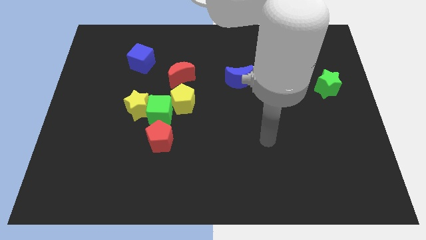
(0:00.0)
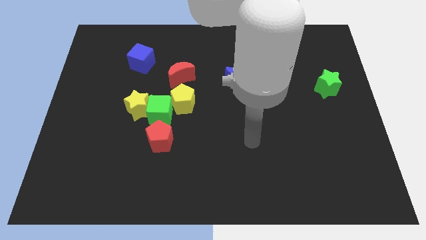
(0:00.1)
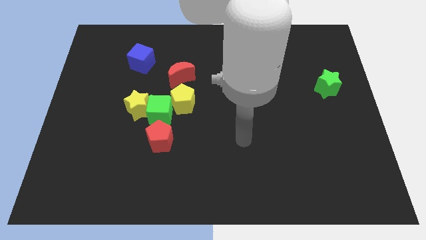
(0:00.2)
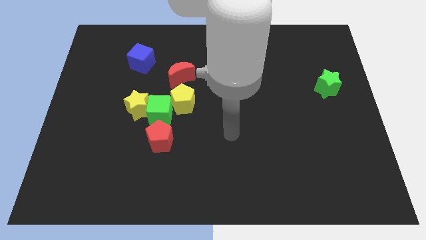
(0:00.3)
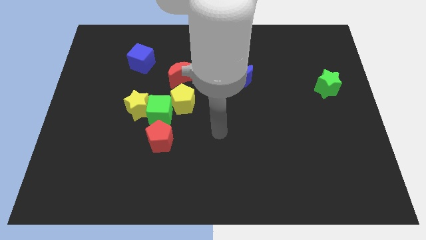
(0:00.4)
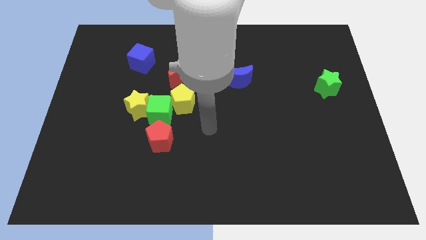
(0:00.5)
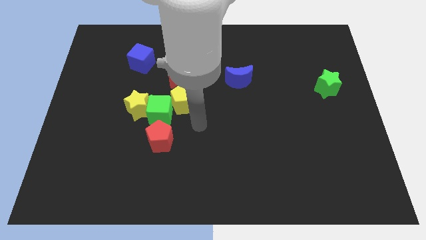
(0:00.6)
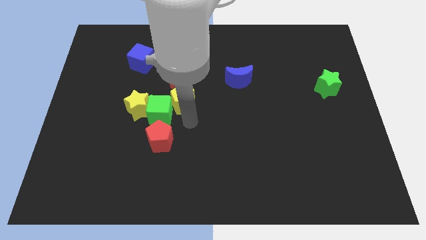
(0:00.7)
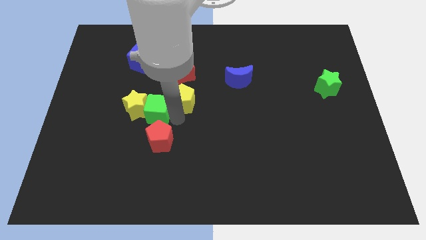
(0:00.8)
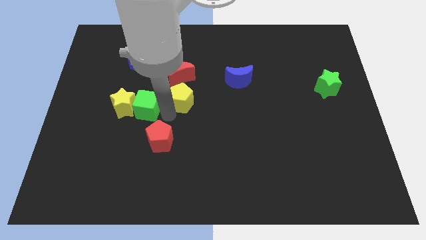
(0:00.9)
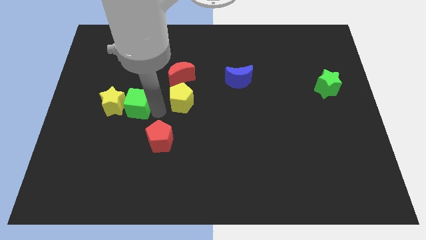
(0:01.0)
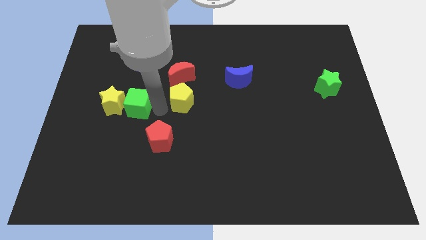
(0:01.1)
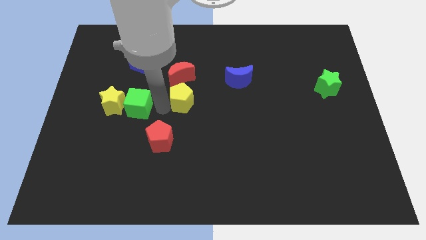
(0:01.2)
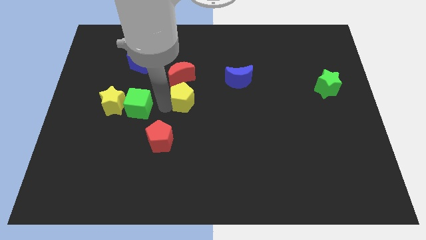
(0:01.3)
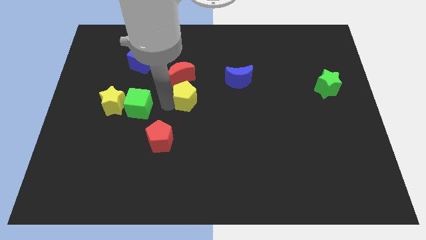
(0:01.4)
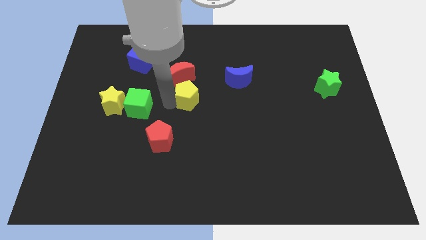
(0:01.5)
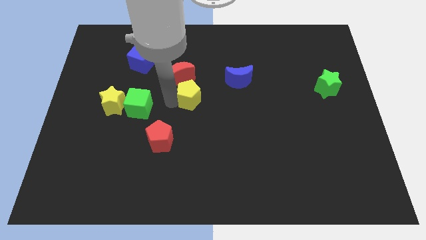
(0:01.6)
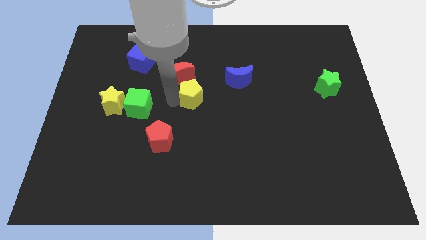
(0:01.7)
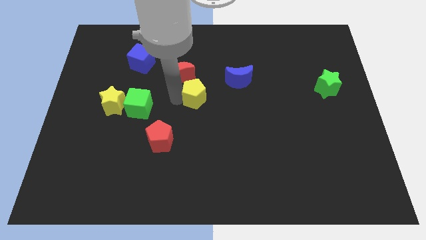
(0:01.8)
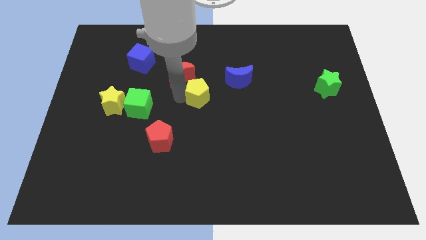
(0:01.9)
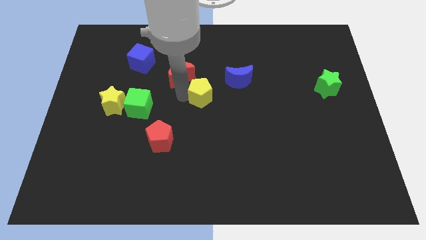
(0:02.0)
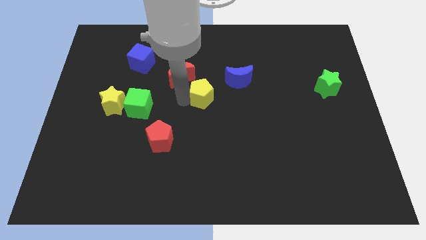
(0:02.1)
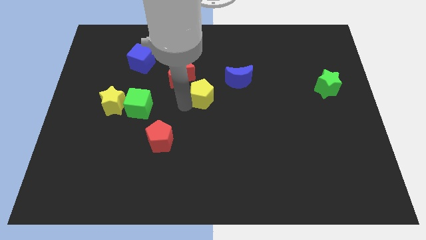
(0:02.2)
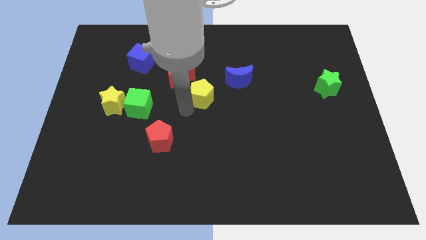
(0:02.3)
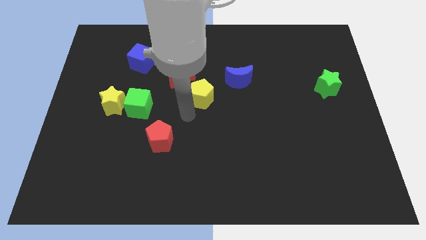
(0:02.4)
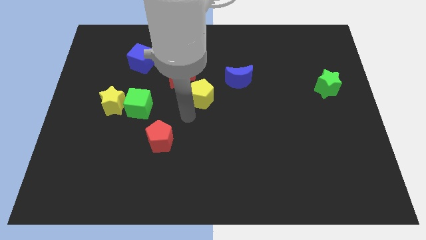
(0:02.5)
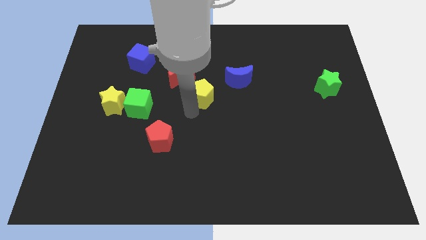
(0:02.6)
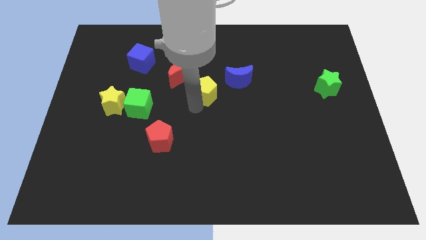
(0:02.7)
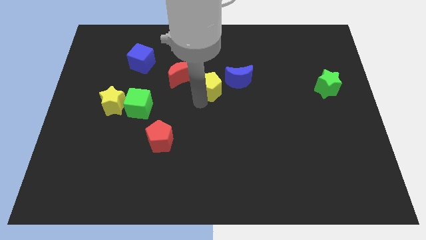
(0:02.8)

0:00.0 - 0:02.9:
push the yellow pentagon a little upwards and to the right

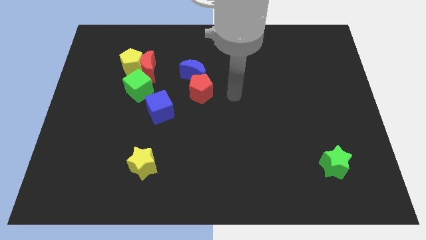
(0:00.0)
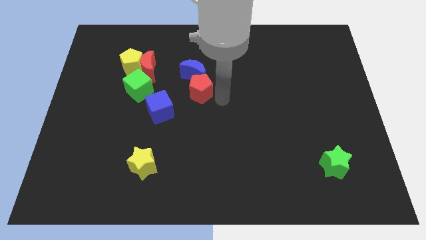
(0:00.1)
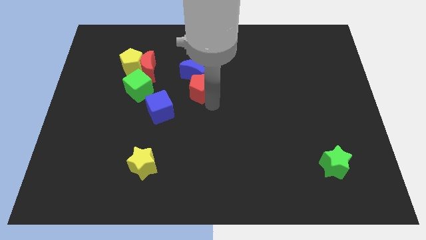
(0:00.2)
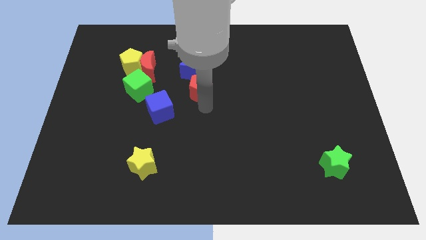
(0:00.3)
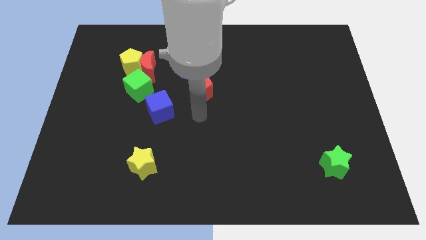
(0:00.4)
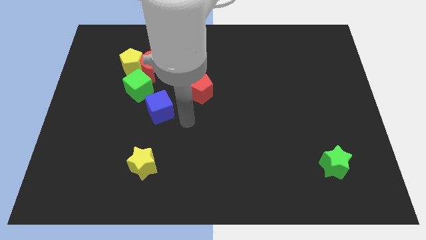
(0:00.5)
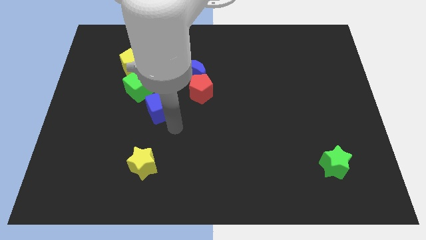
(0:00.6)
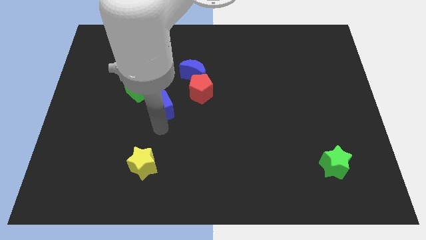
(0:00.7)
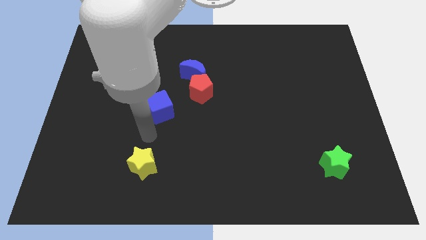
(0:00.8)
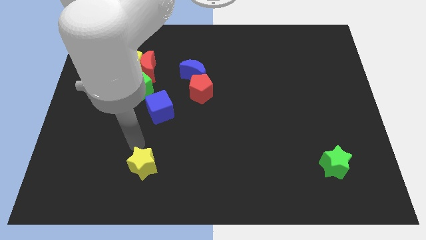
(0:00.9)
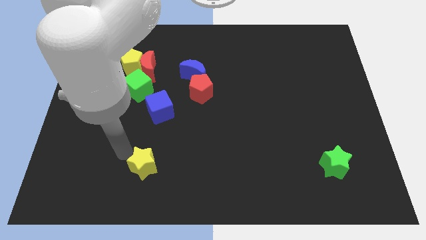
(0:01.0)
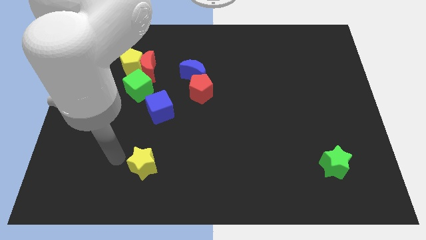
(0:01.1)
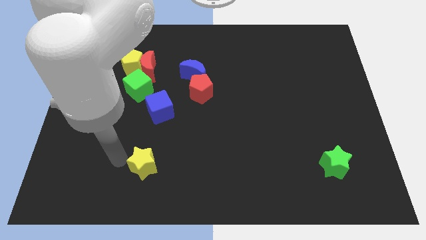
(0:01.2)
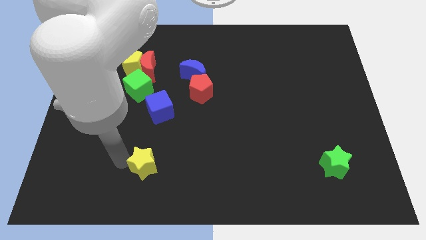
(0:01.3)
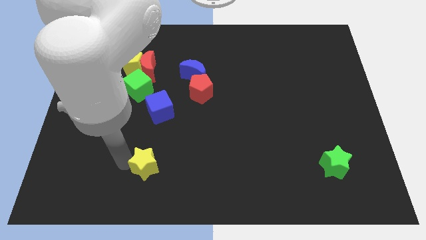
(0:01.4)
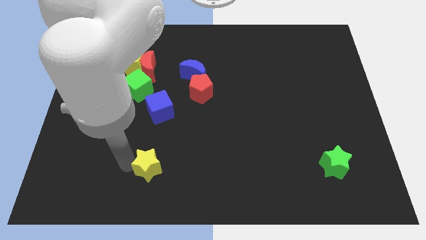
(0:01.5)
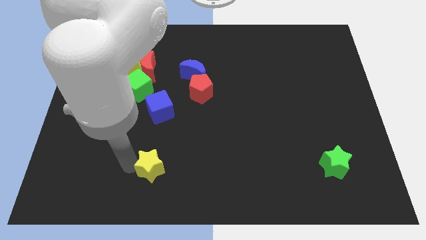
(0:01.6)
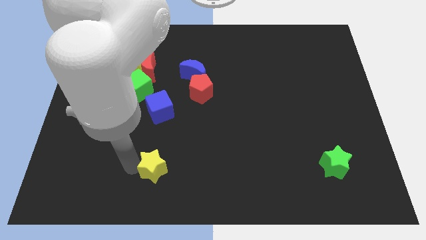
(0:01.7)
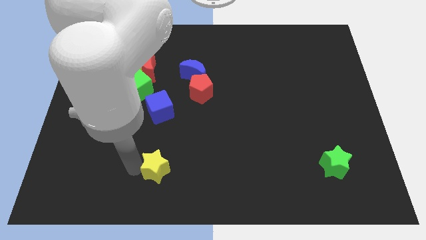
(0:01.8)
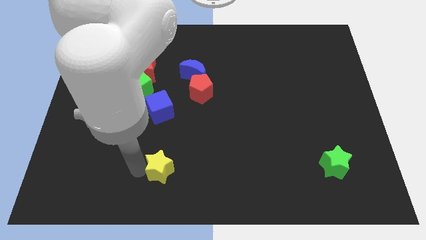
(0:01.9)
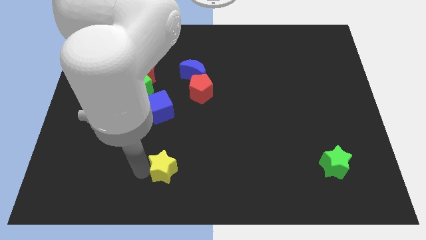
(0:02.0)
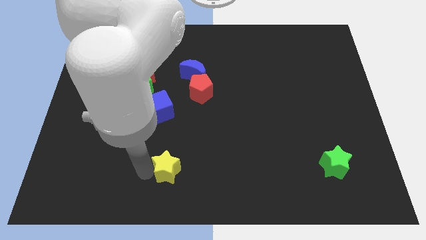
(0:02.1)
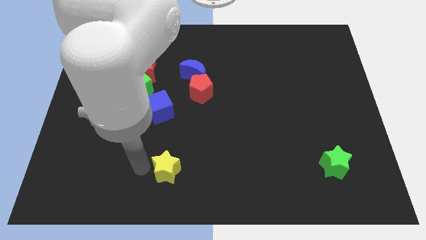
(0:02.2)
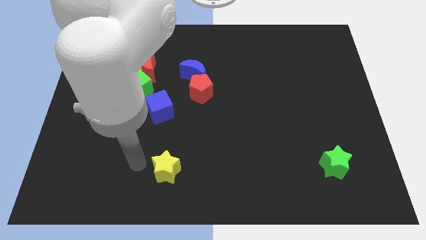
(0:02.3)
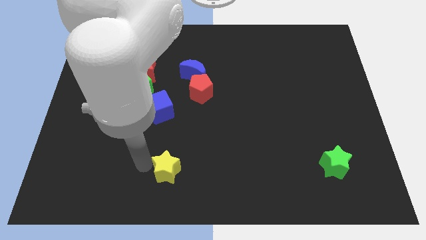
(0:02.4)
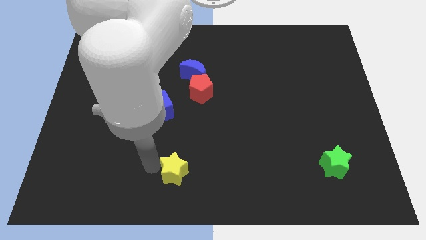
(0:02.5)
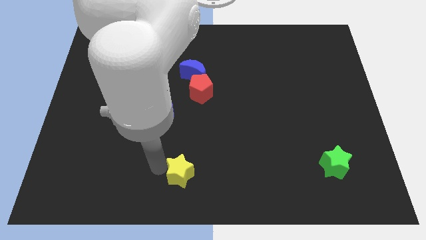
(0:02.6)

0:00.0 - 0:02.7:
slide the yellow star somewhat right

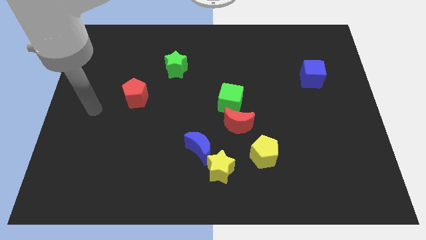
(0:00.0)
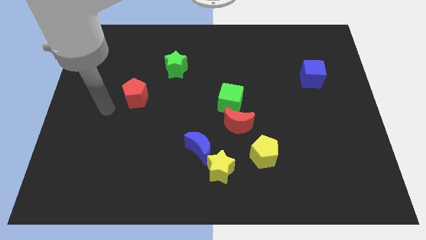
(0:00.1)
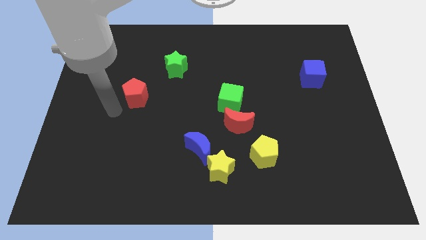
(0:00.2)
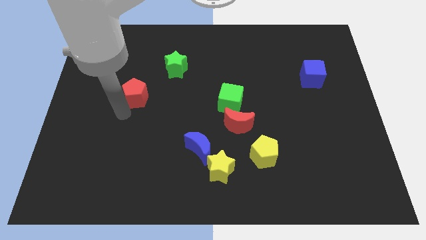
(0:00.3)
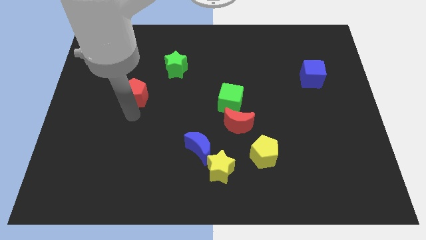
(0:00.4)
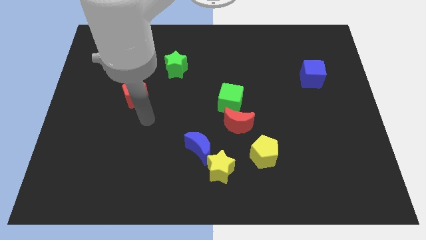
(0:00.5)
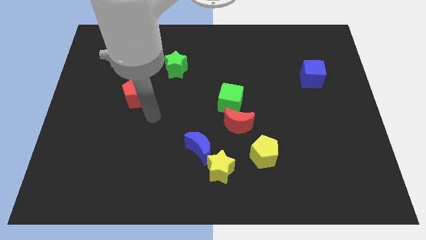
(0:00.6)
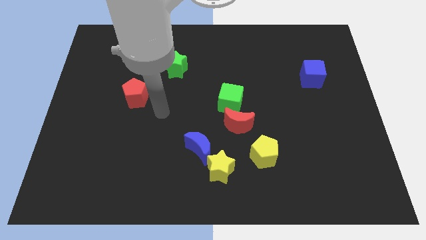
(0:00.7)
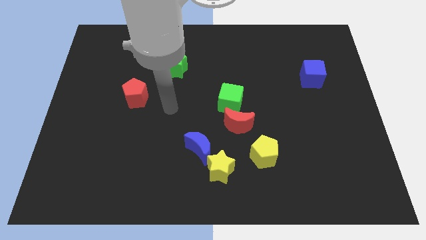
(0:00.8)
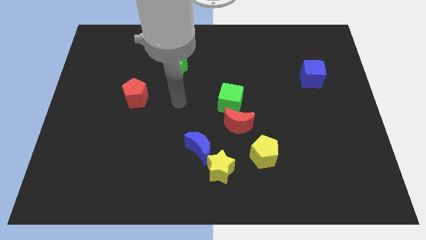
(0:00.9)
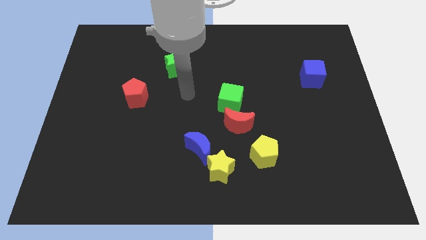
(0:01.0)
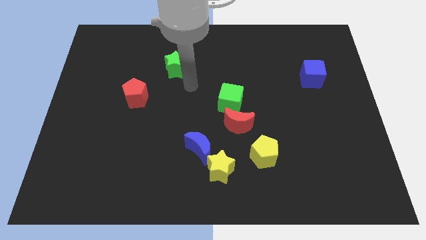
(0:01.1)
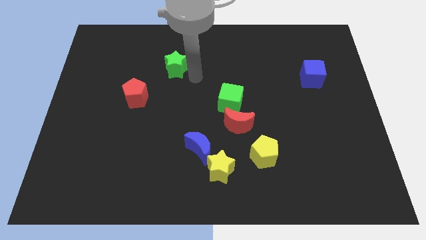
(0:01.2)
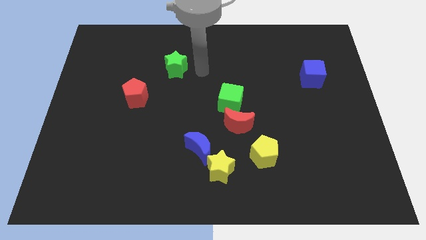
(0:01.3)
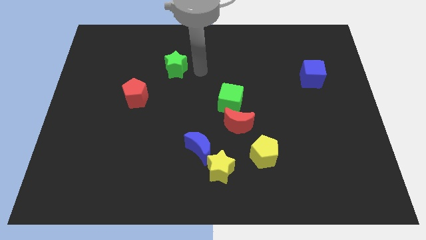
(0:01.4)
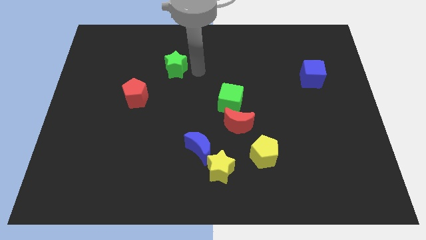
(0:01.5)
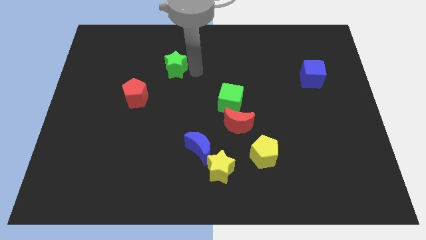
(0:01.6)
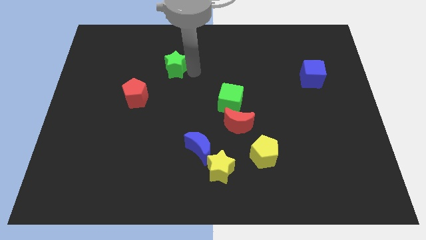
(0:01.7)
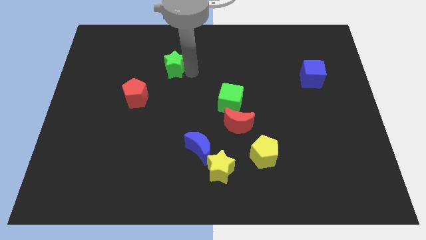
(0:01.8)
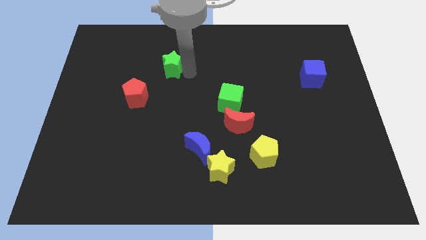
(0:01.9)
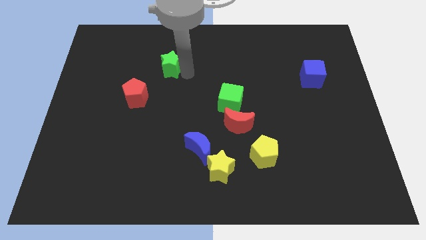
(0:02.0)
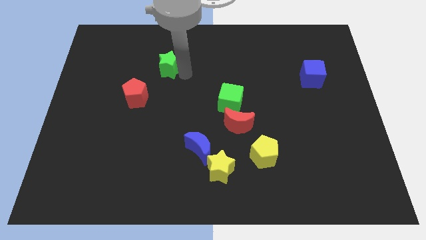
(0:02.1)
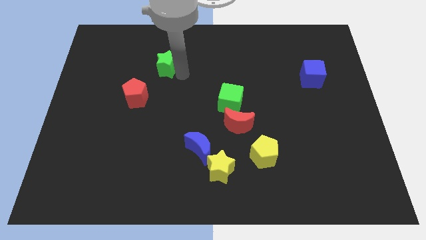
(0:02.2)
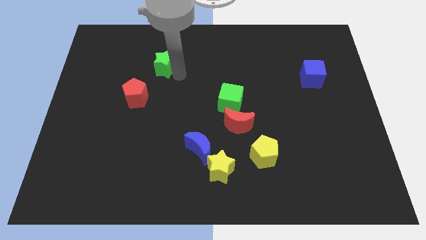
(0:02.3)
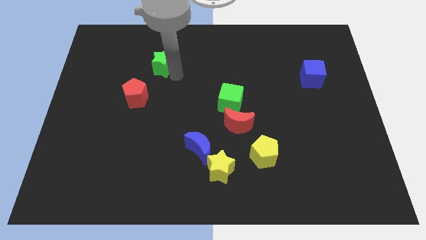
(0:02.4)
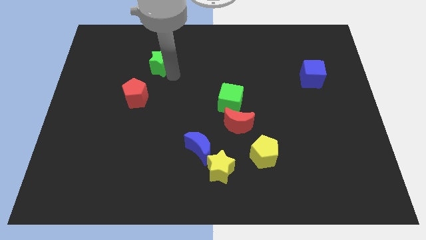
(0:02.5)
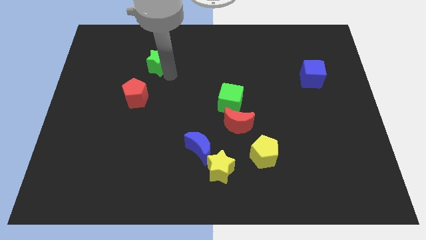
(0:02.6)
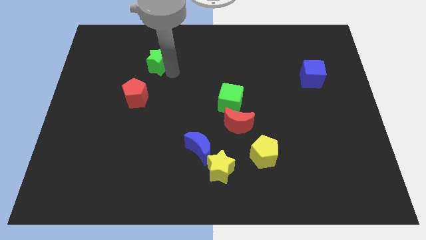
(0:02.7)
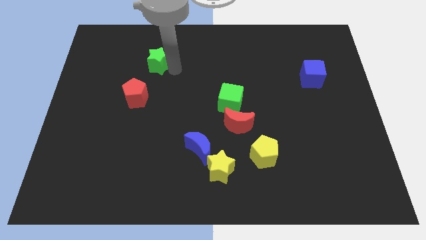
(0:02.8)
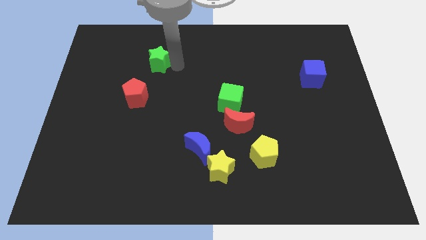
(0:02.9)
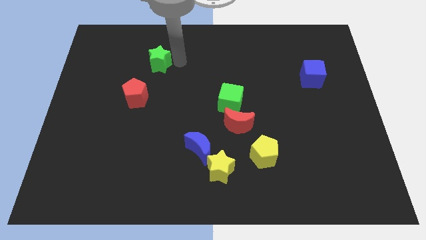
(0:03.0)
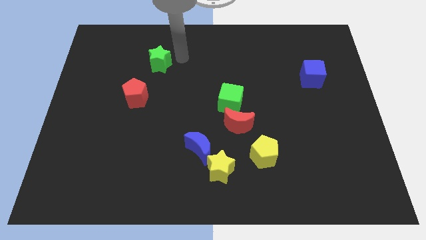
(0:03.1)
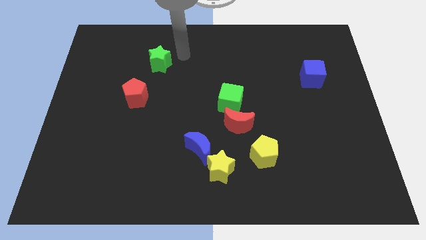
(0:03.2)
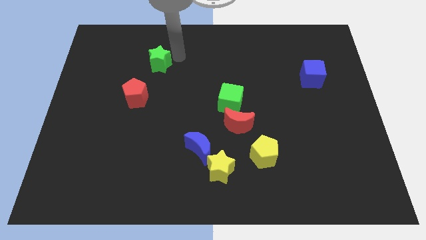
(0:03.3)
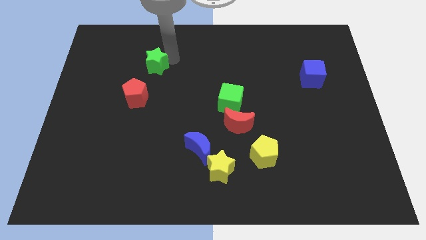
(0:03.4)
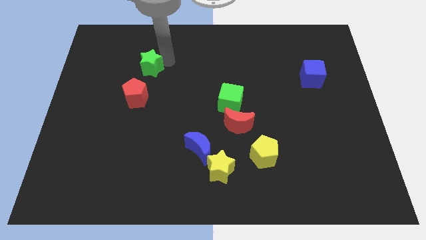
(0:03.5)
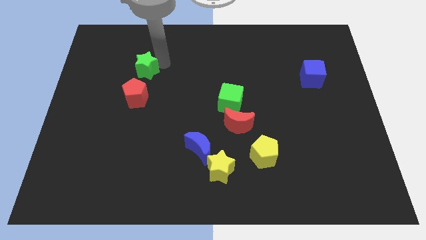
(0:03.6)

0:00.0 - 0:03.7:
slide the green star left a little bit
